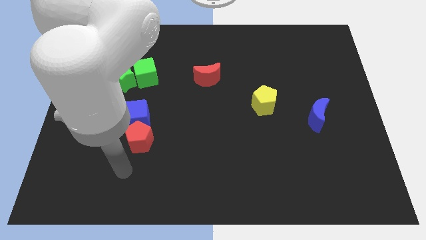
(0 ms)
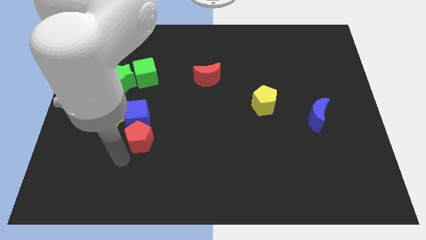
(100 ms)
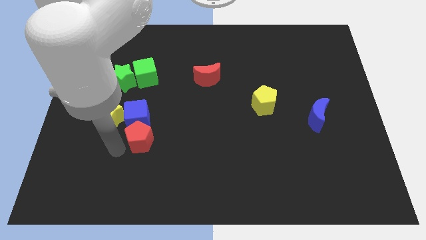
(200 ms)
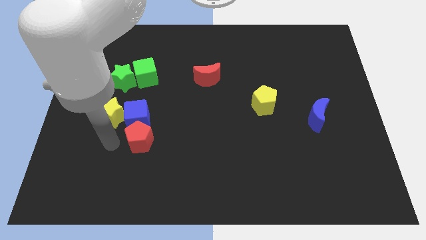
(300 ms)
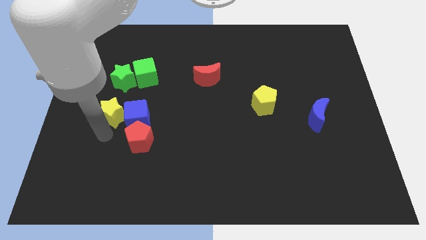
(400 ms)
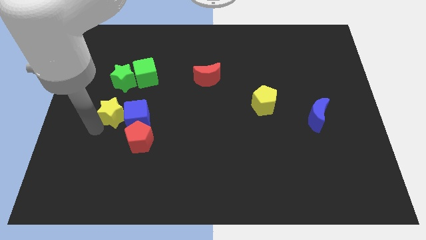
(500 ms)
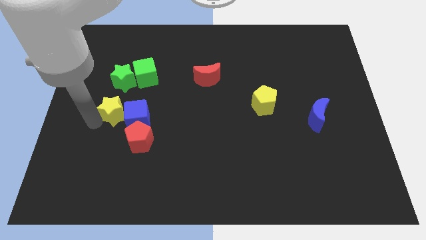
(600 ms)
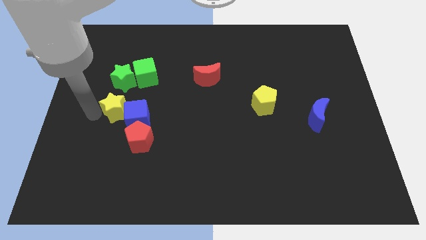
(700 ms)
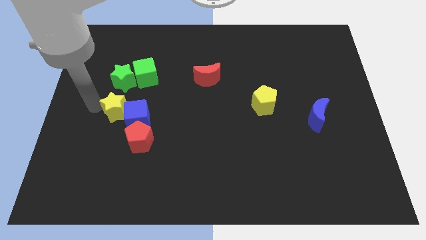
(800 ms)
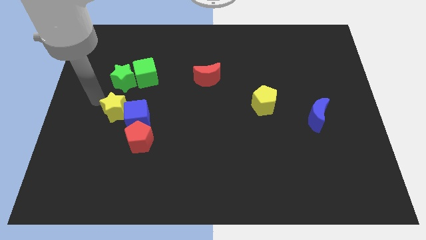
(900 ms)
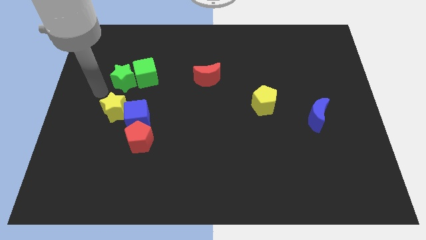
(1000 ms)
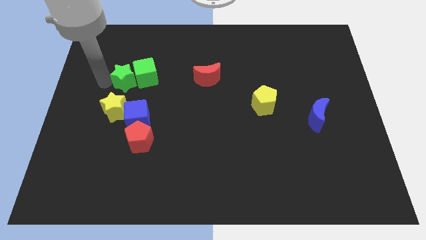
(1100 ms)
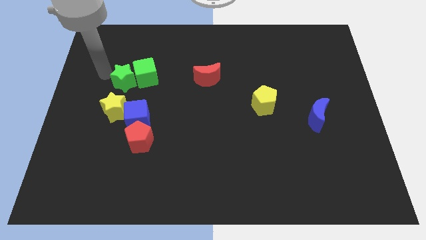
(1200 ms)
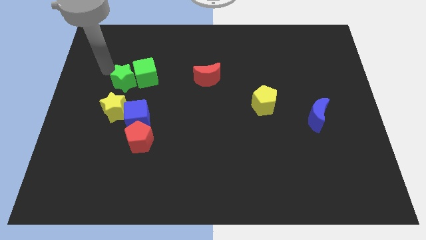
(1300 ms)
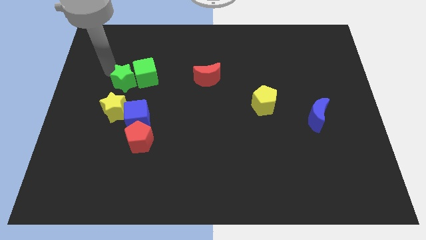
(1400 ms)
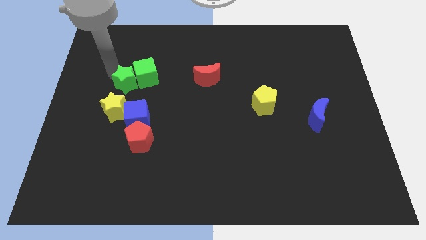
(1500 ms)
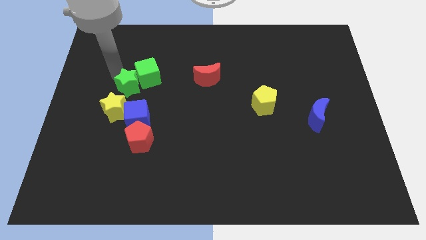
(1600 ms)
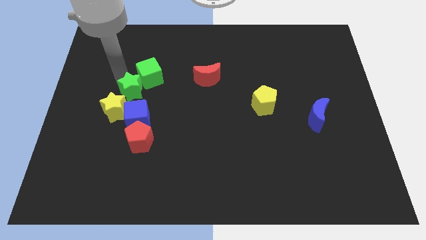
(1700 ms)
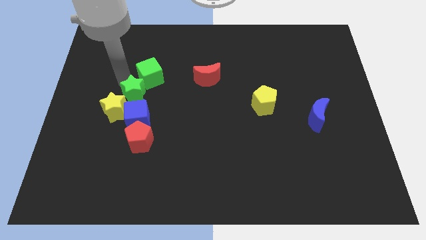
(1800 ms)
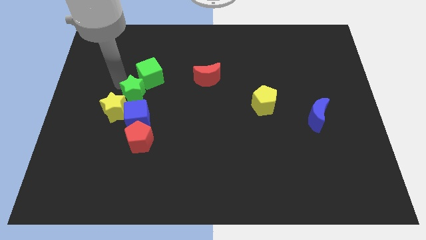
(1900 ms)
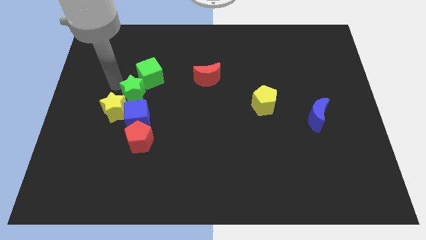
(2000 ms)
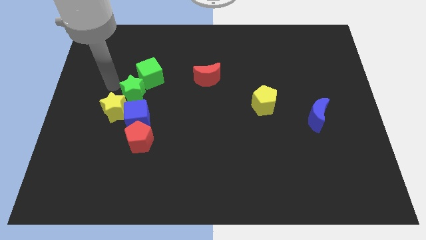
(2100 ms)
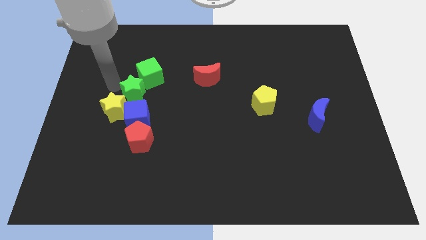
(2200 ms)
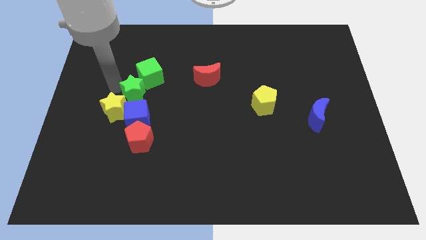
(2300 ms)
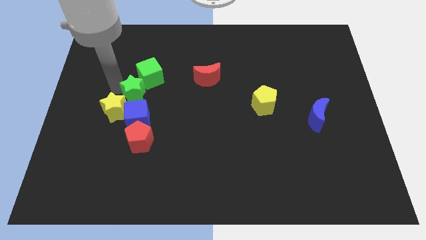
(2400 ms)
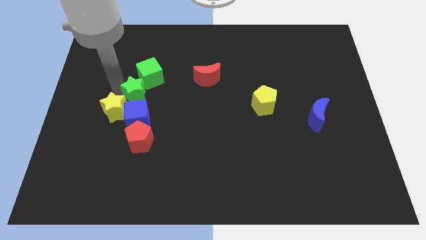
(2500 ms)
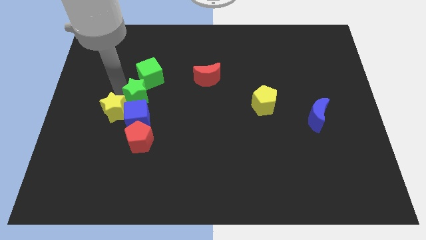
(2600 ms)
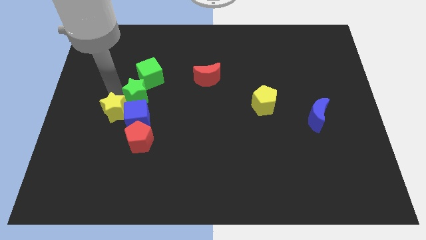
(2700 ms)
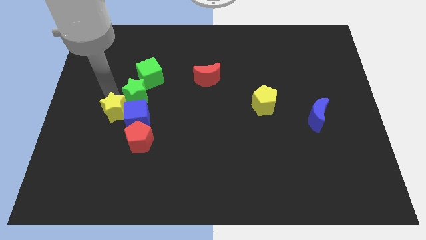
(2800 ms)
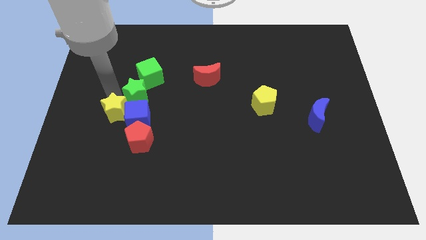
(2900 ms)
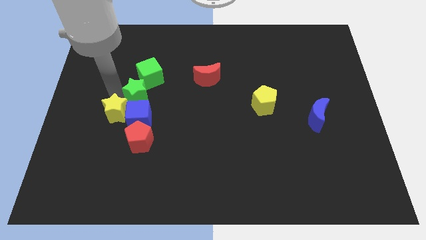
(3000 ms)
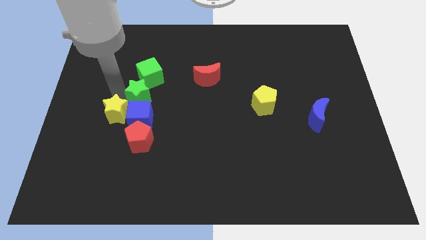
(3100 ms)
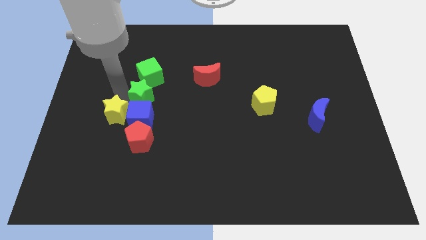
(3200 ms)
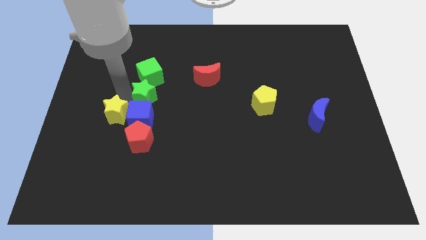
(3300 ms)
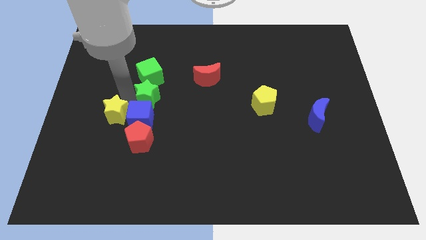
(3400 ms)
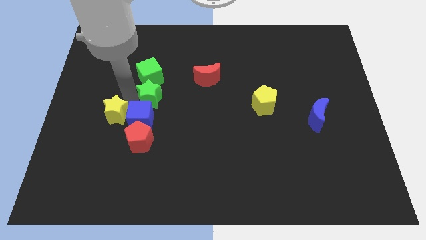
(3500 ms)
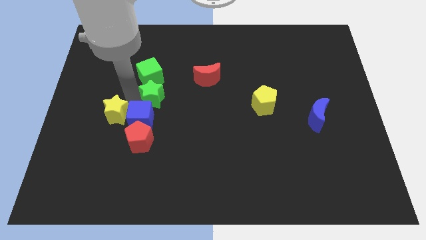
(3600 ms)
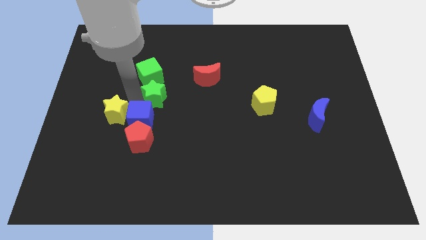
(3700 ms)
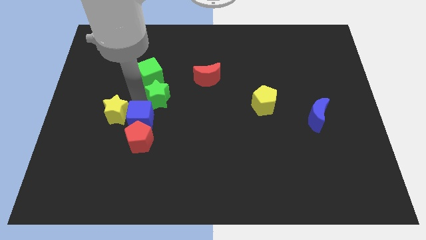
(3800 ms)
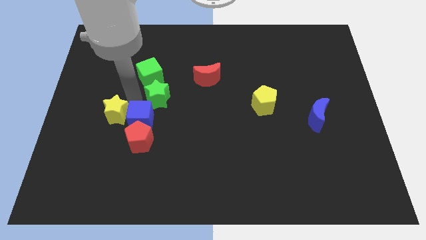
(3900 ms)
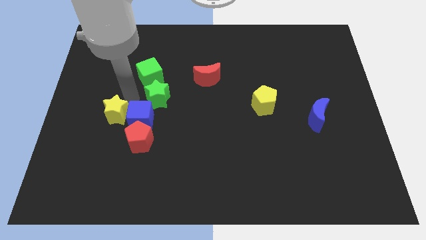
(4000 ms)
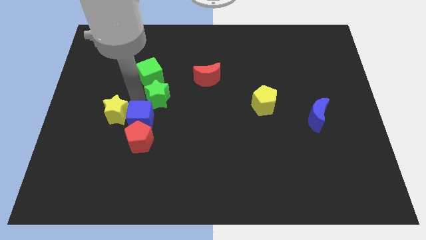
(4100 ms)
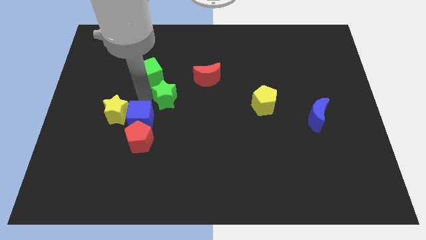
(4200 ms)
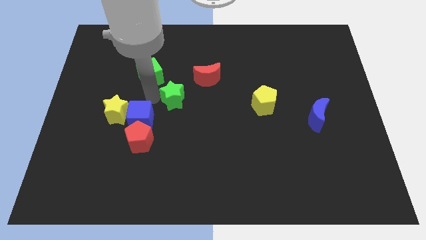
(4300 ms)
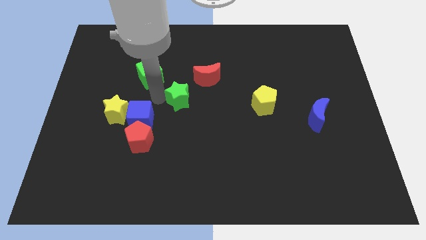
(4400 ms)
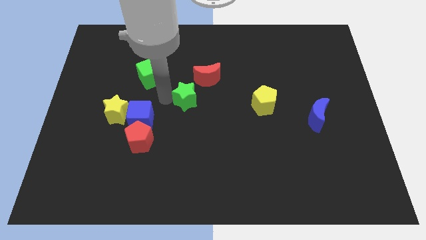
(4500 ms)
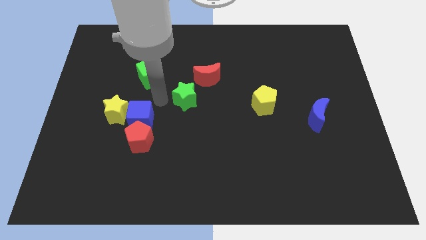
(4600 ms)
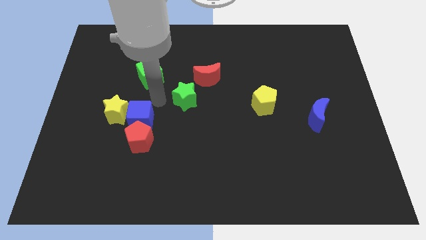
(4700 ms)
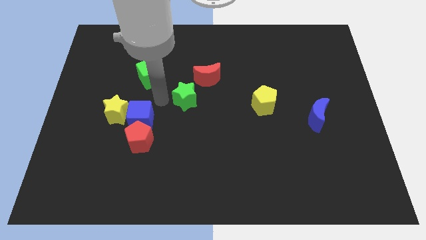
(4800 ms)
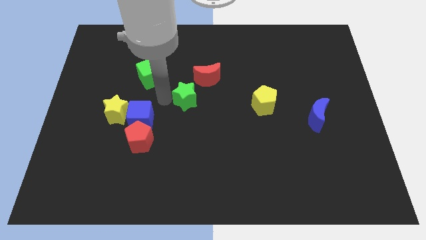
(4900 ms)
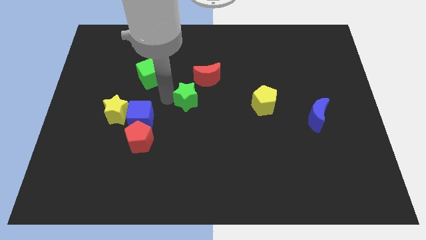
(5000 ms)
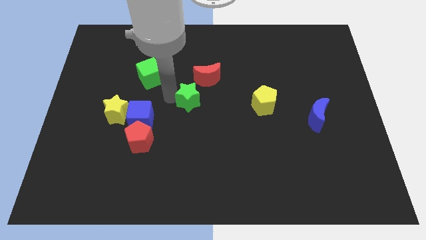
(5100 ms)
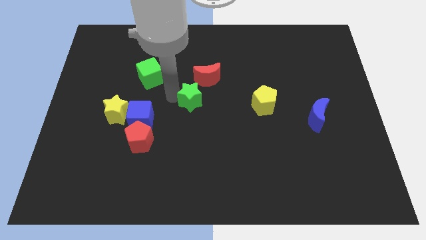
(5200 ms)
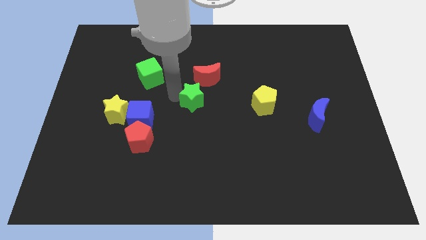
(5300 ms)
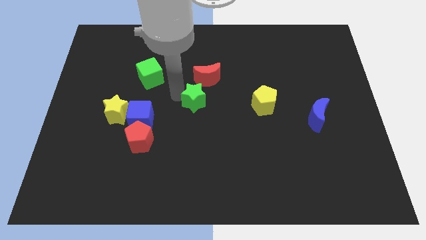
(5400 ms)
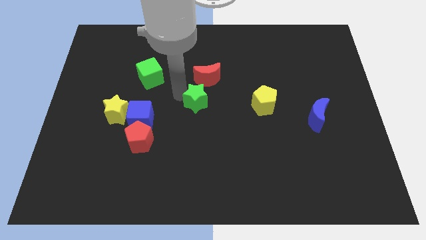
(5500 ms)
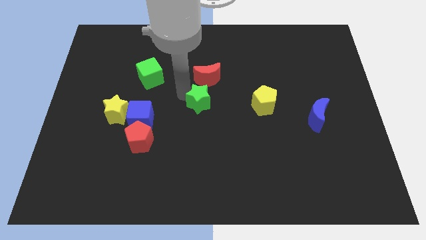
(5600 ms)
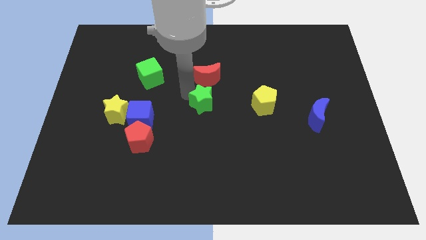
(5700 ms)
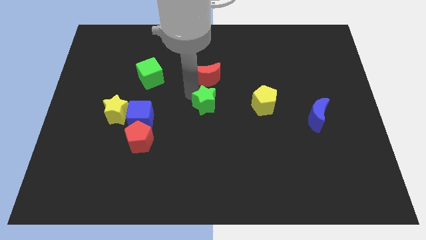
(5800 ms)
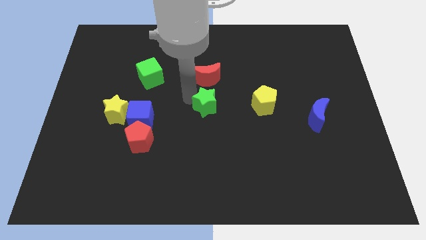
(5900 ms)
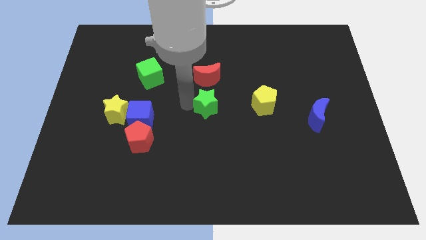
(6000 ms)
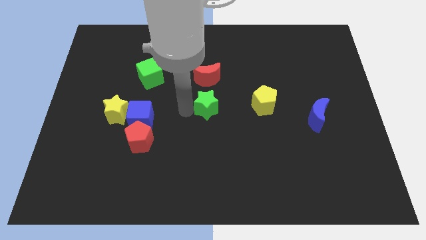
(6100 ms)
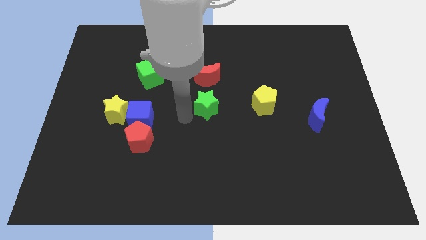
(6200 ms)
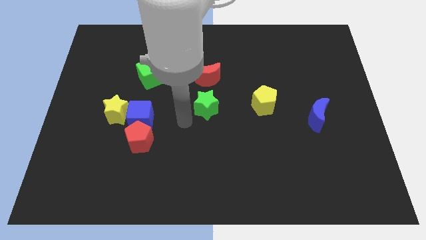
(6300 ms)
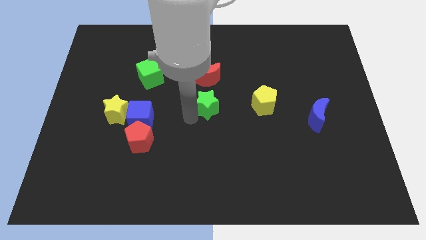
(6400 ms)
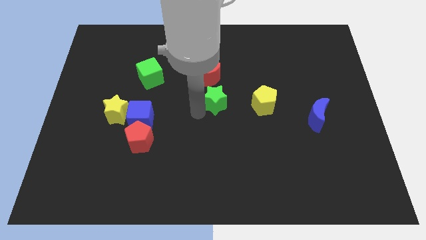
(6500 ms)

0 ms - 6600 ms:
move the green star right

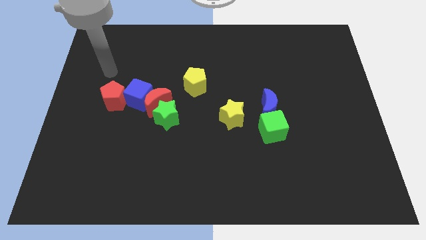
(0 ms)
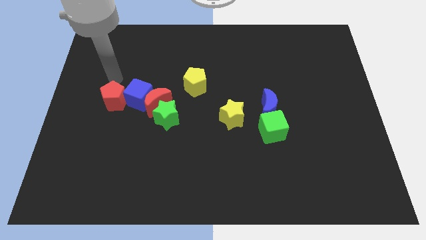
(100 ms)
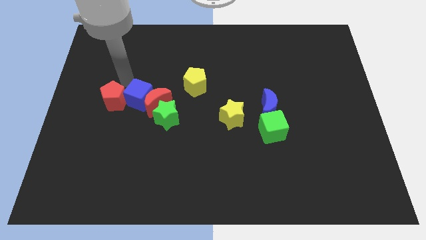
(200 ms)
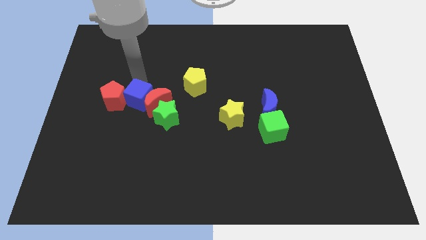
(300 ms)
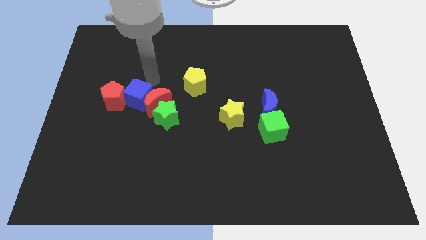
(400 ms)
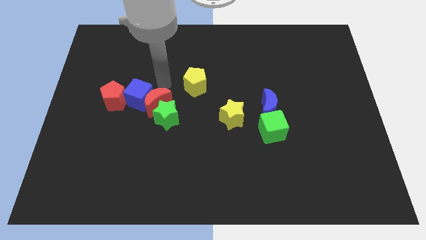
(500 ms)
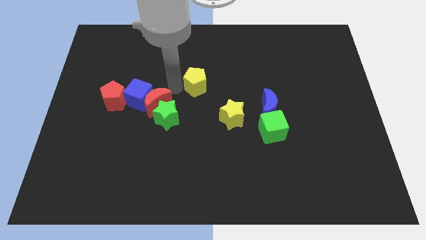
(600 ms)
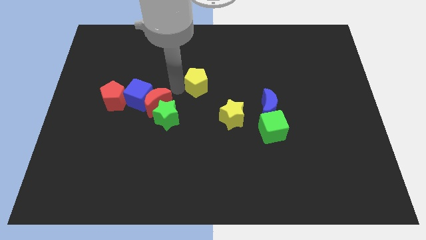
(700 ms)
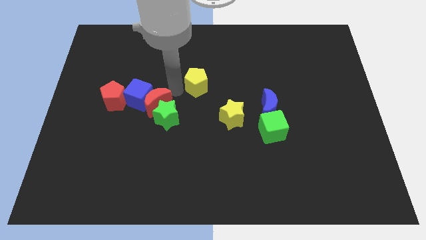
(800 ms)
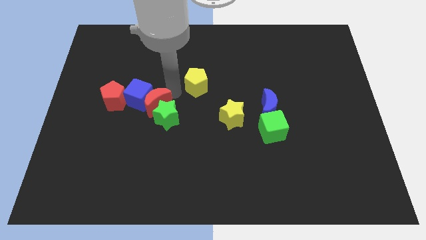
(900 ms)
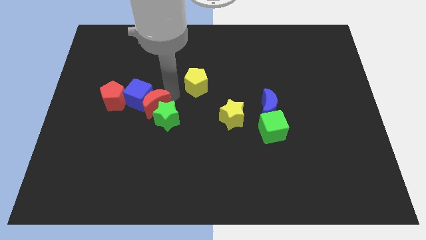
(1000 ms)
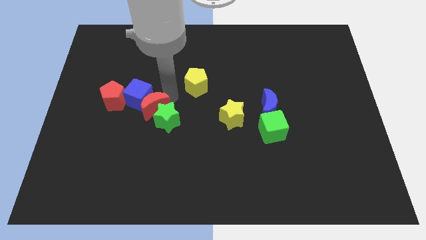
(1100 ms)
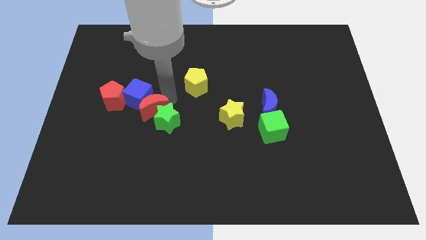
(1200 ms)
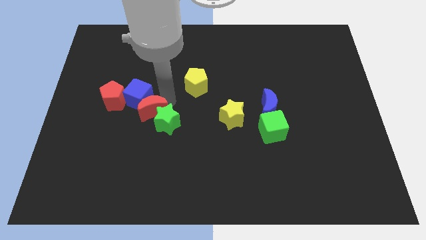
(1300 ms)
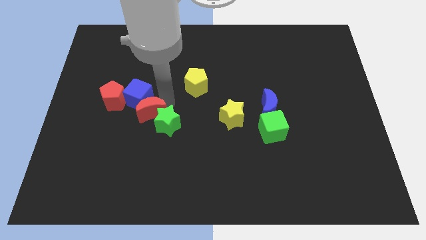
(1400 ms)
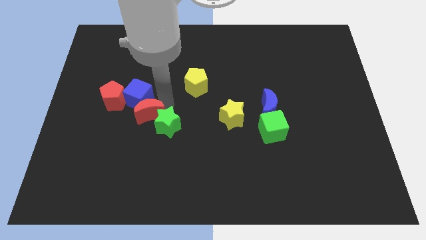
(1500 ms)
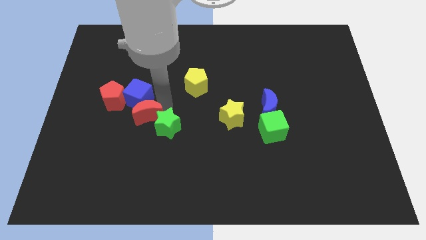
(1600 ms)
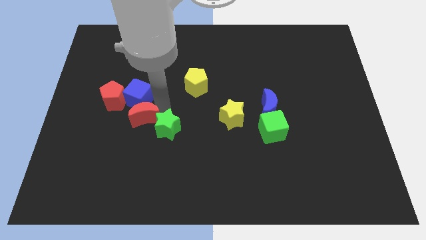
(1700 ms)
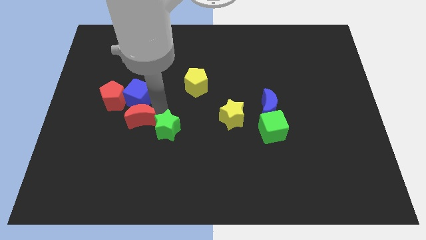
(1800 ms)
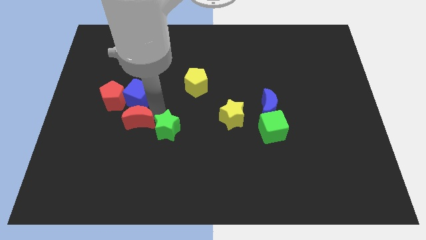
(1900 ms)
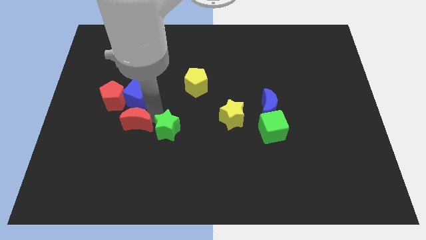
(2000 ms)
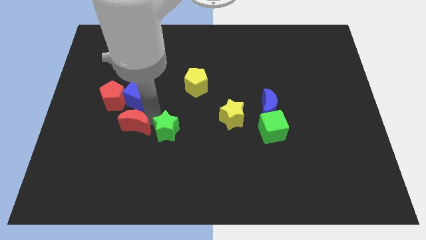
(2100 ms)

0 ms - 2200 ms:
push the red moon a little bit down and to the left
